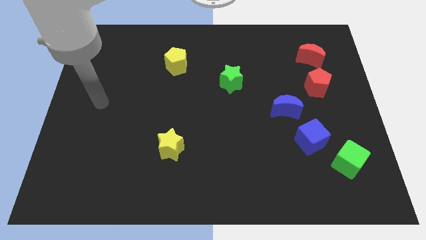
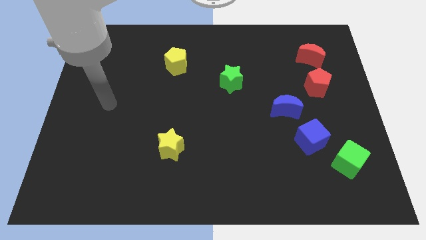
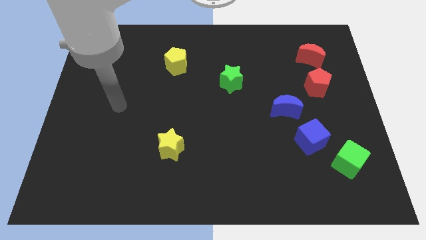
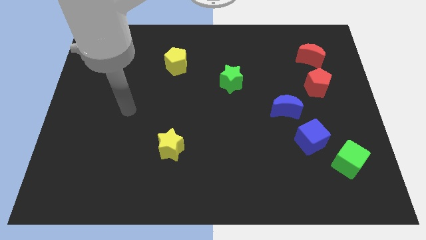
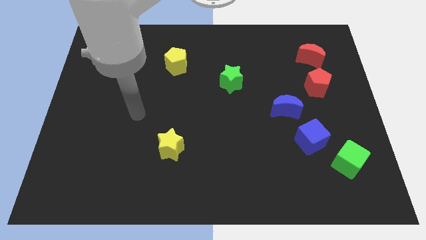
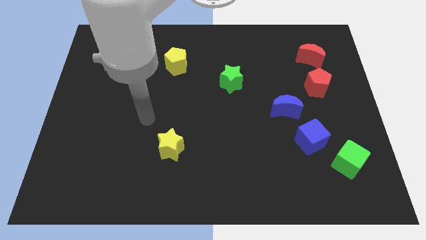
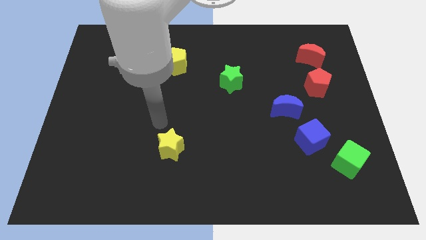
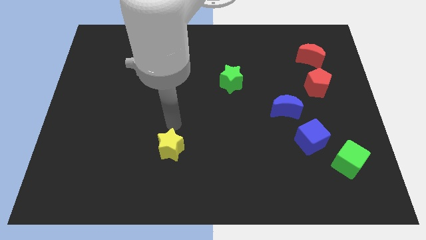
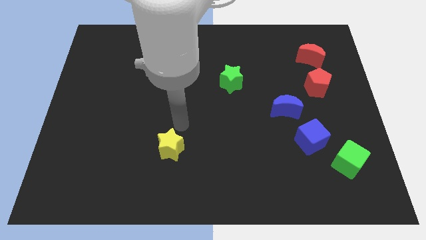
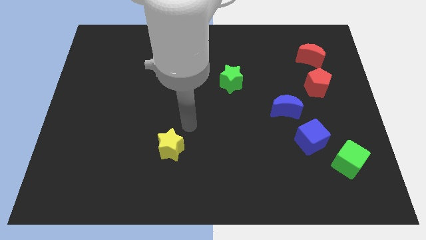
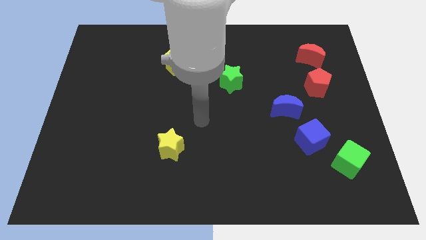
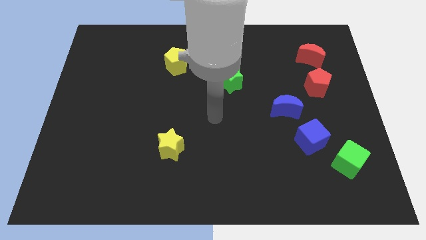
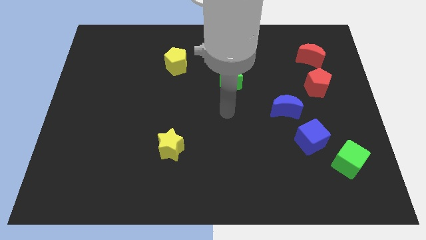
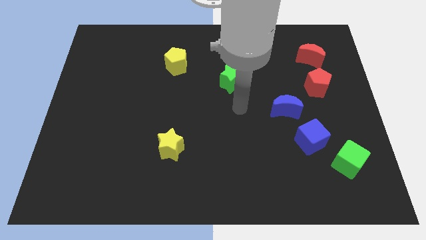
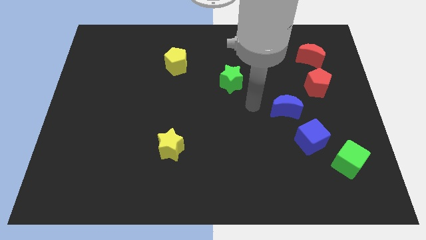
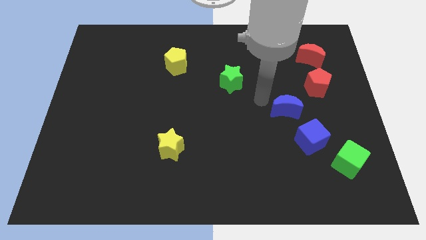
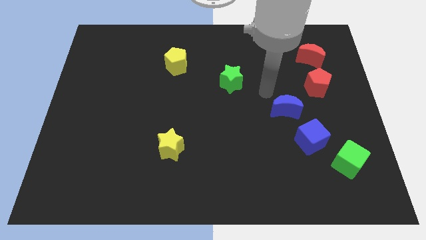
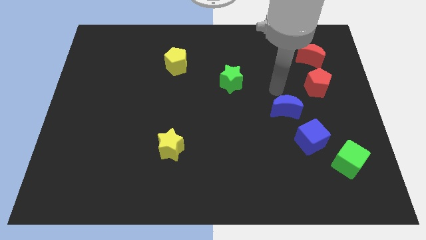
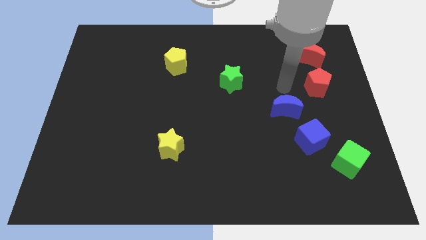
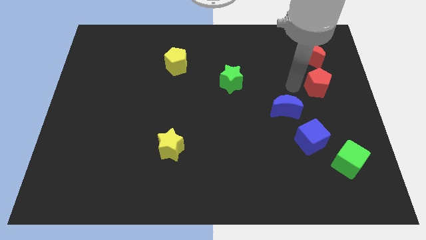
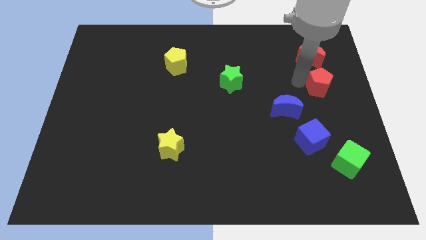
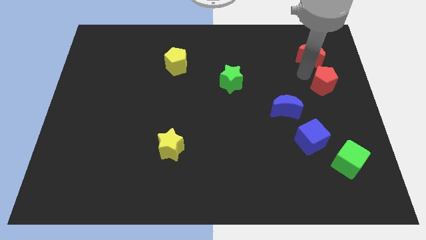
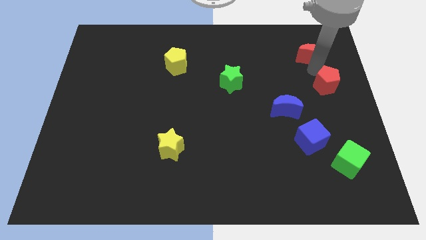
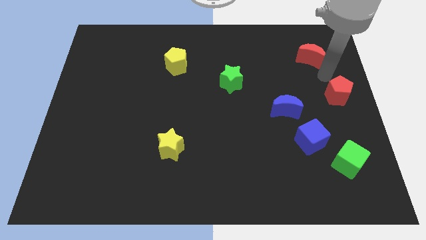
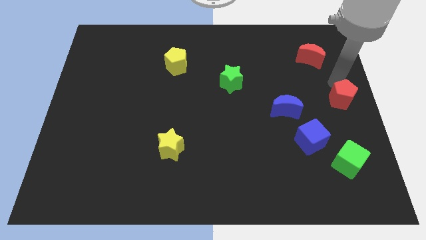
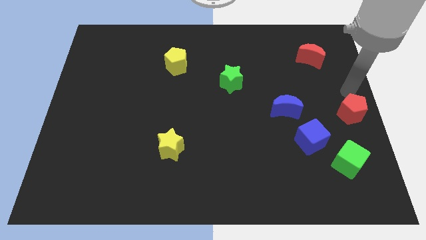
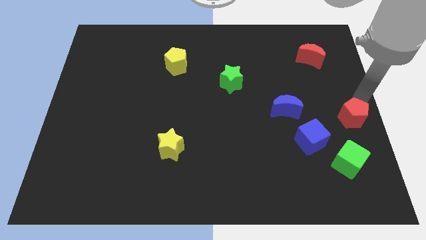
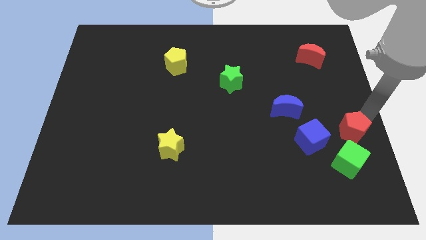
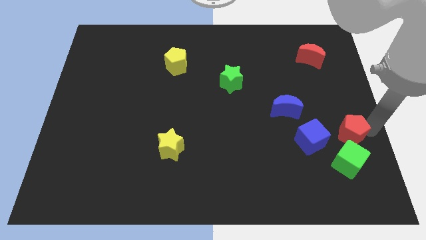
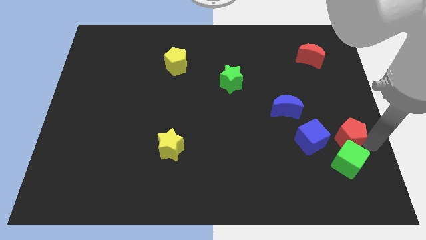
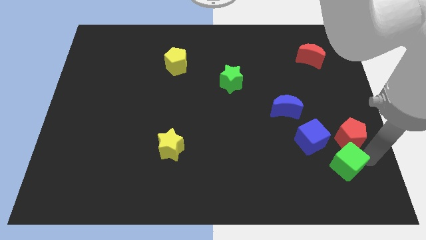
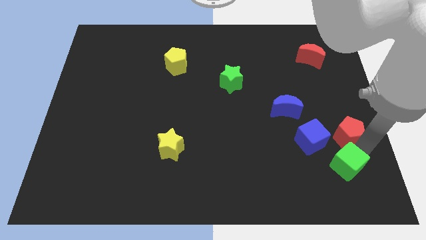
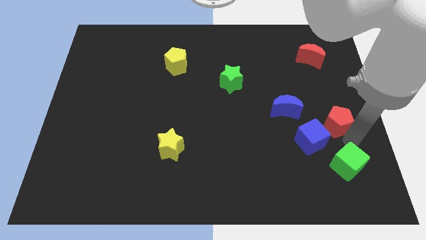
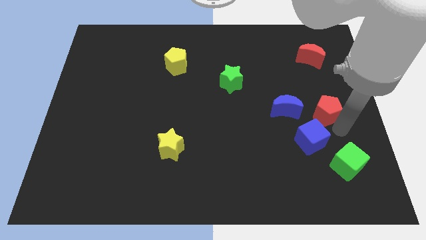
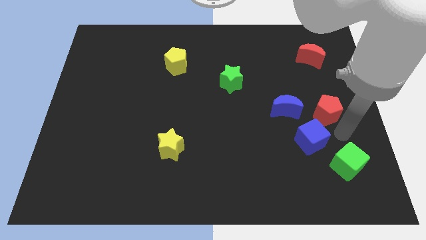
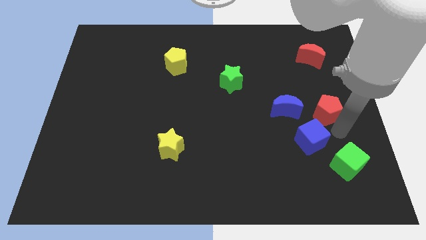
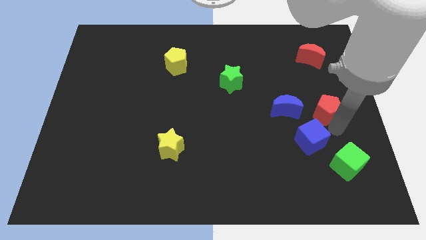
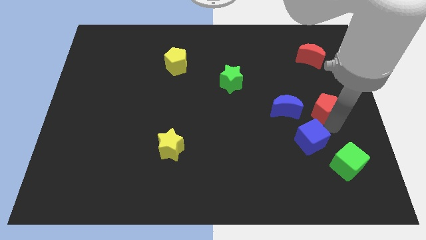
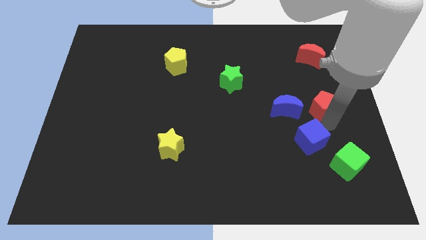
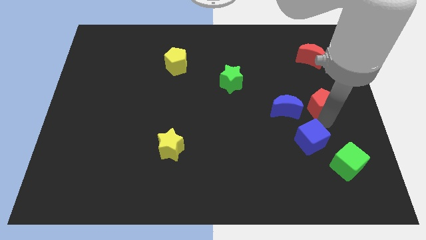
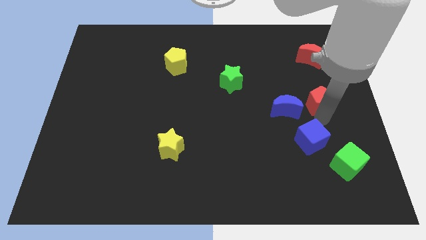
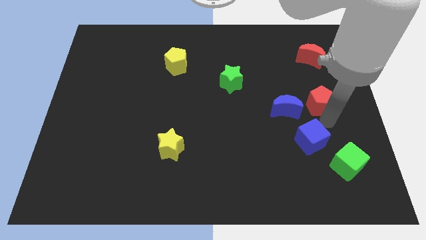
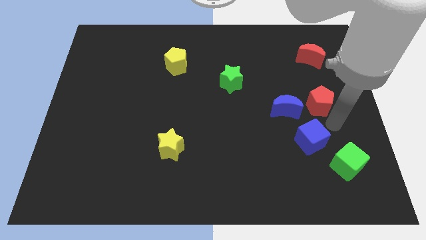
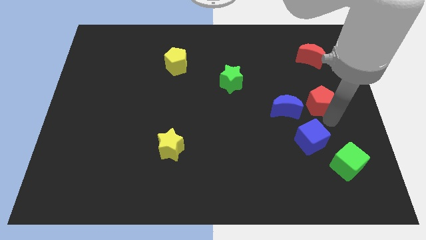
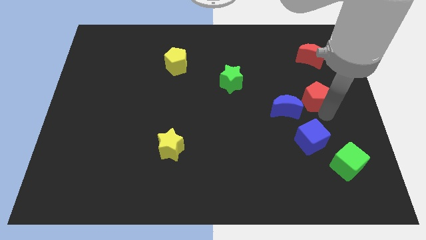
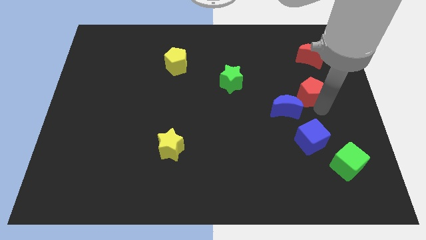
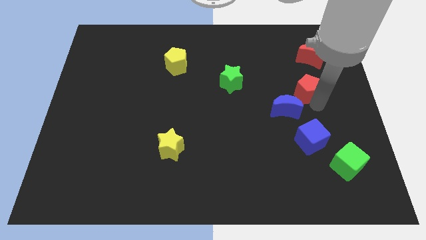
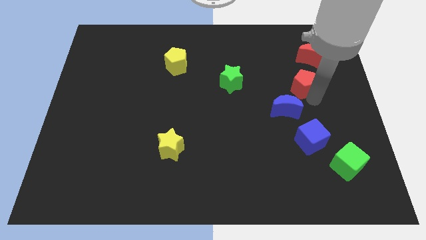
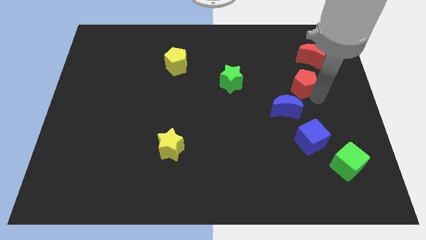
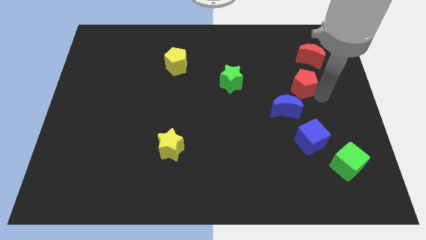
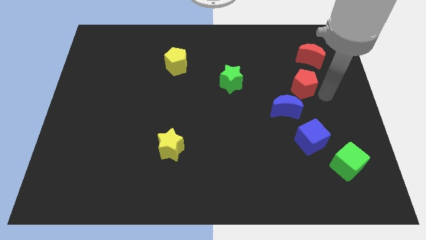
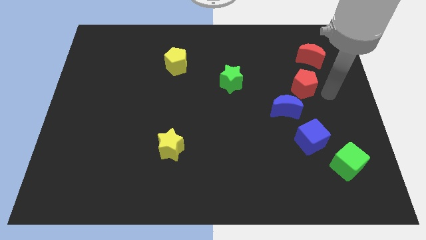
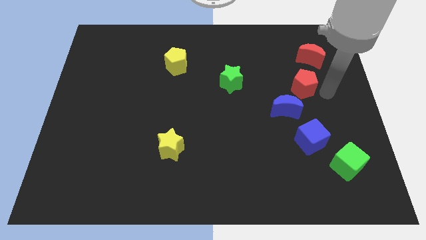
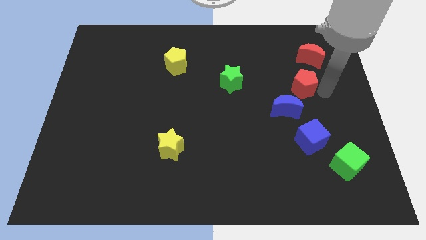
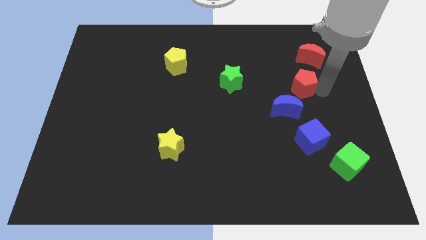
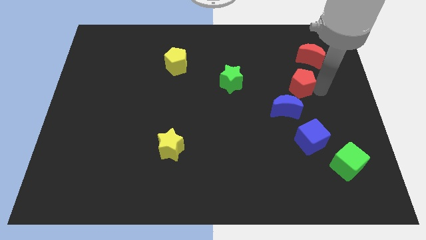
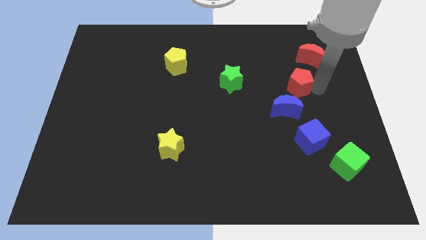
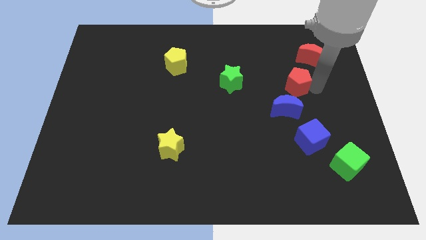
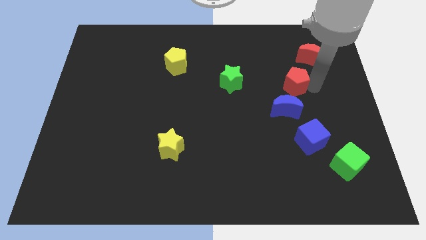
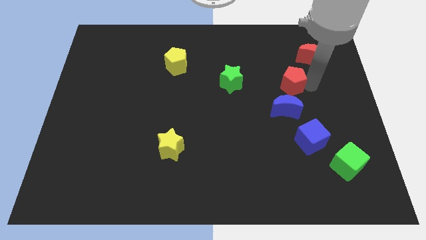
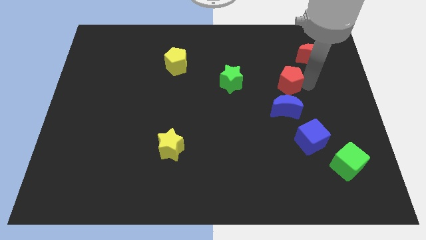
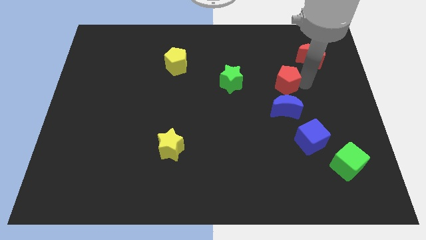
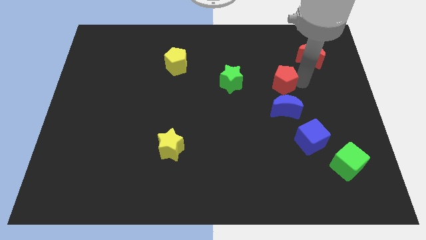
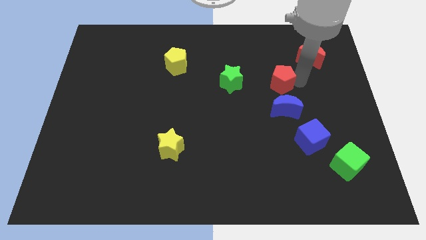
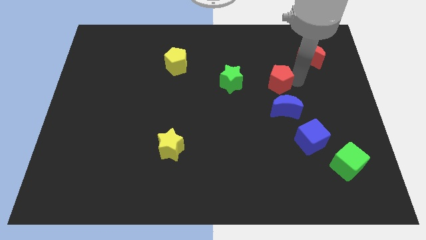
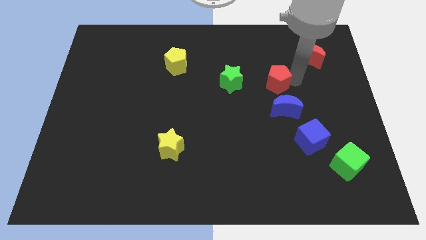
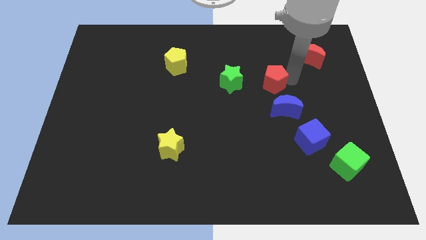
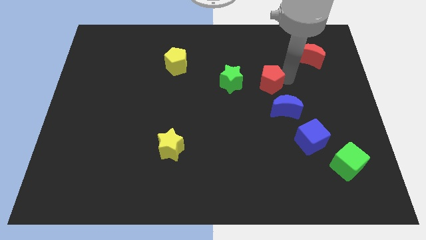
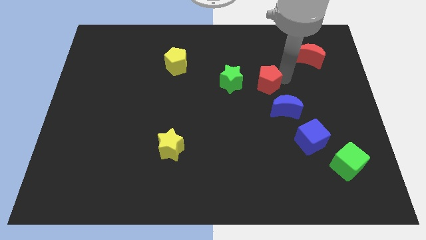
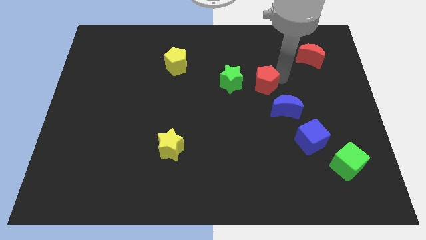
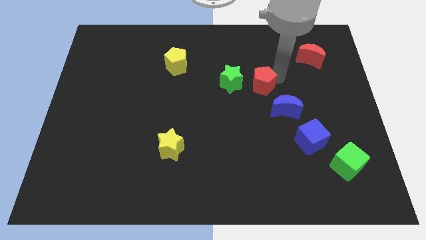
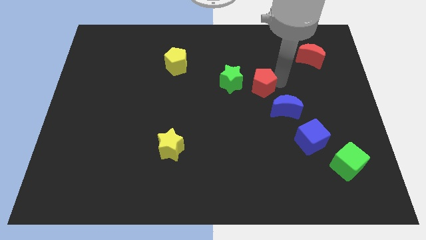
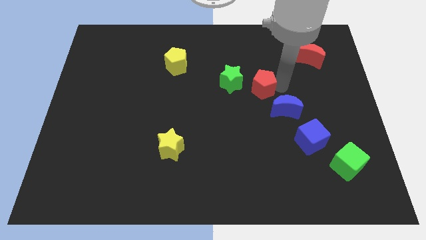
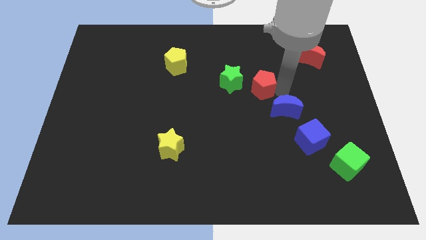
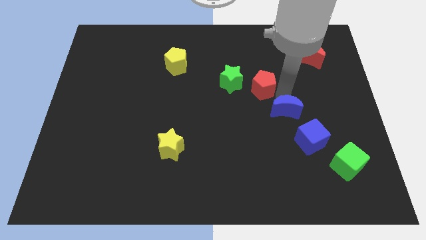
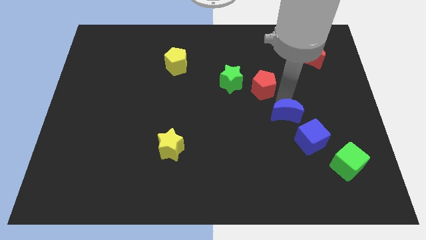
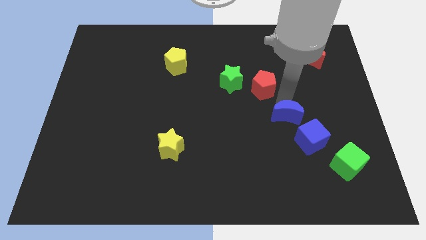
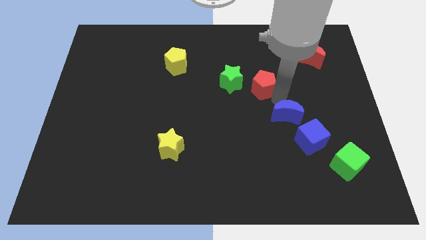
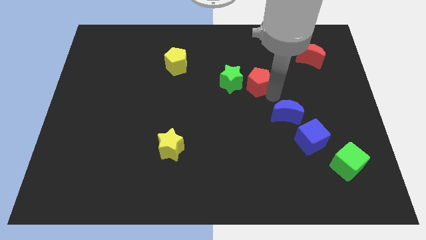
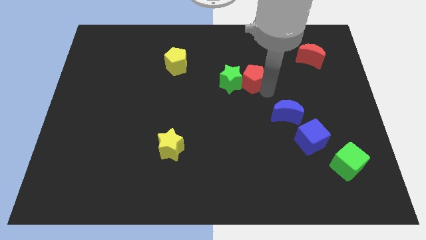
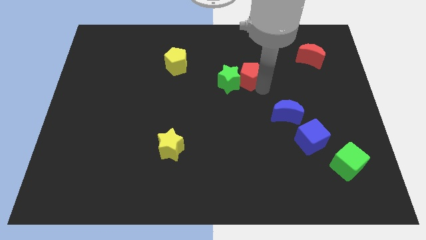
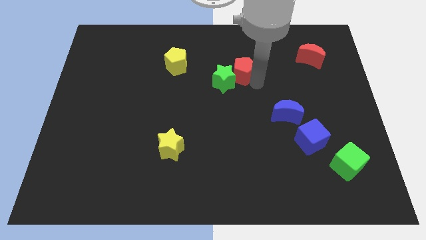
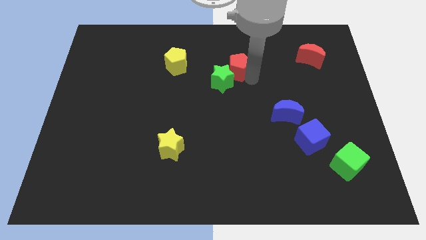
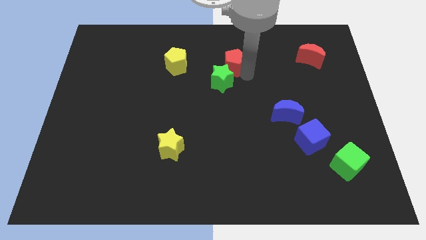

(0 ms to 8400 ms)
move the red pentagon just right of the yellow pentagon
